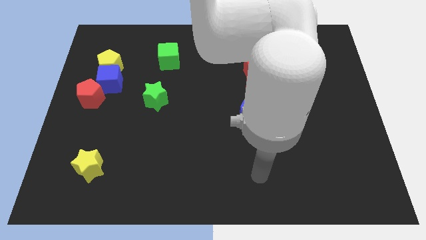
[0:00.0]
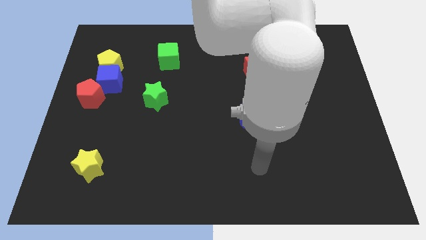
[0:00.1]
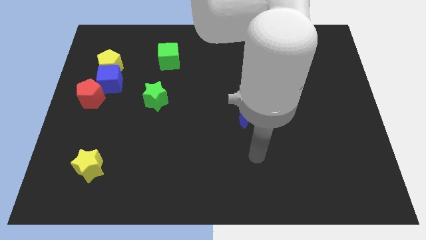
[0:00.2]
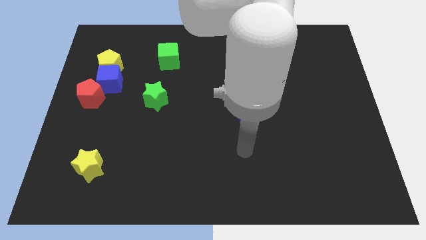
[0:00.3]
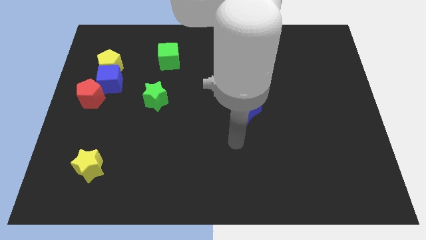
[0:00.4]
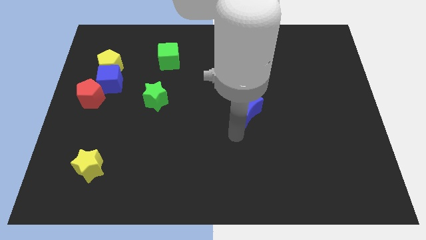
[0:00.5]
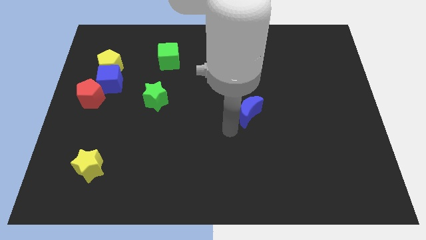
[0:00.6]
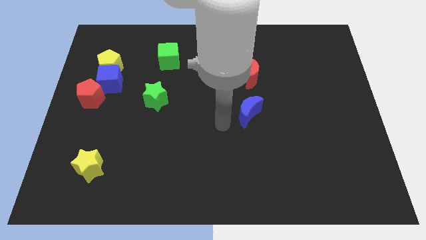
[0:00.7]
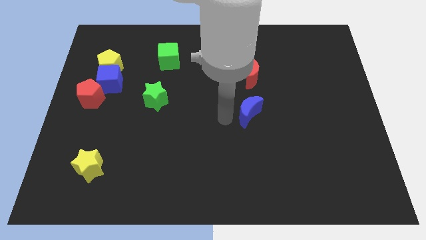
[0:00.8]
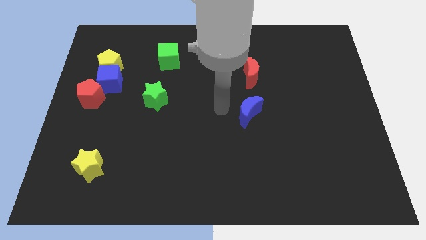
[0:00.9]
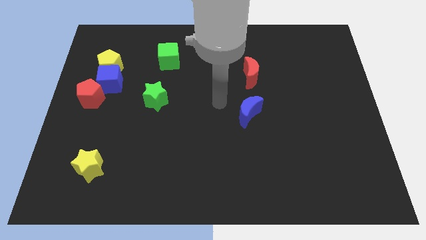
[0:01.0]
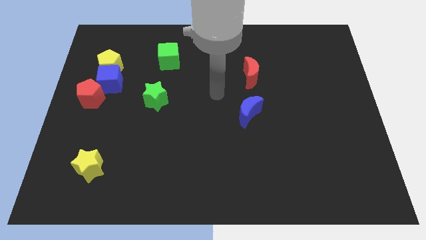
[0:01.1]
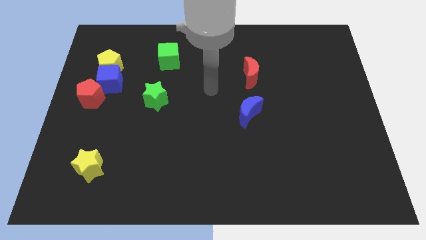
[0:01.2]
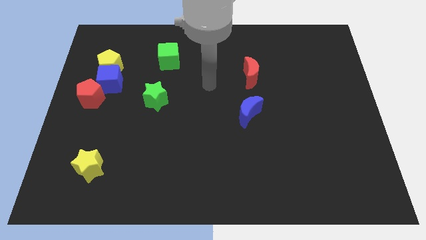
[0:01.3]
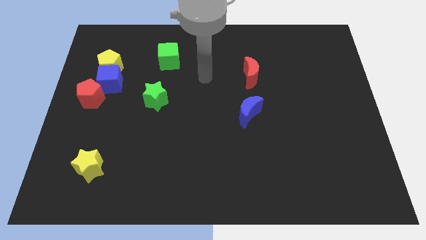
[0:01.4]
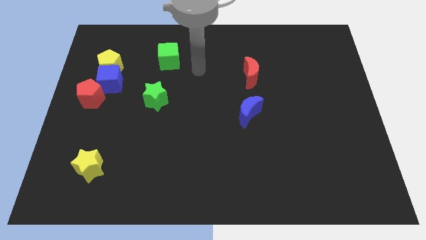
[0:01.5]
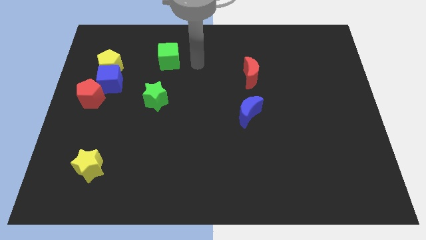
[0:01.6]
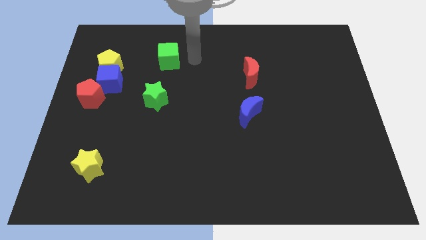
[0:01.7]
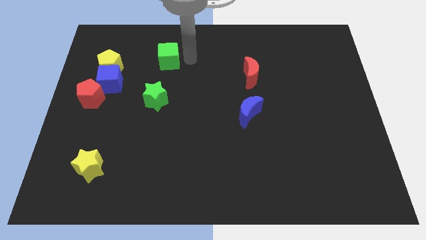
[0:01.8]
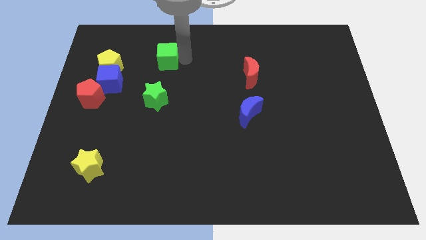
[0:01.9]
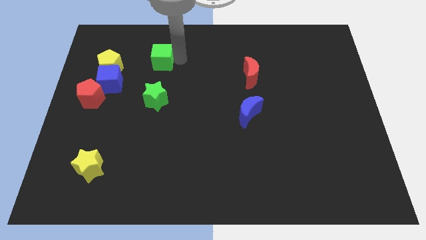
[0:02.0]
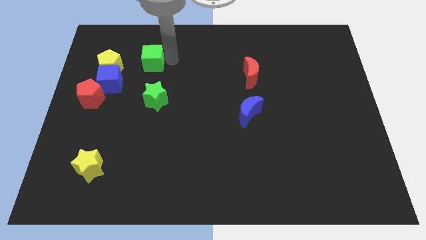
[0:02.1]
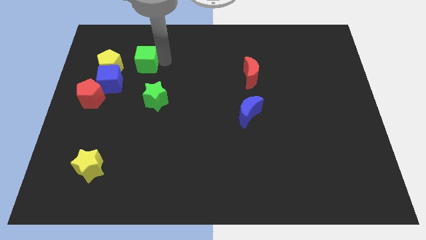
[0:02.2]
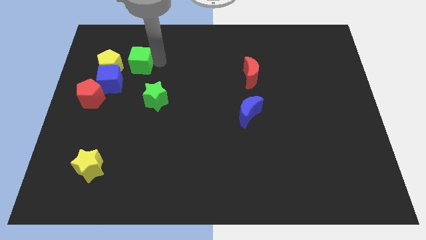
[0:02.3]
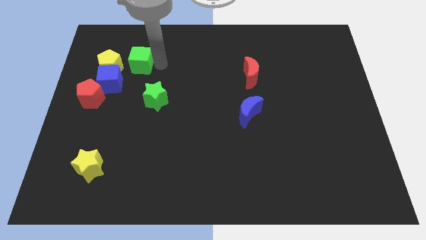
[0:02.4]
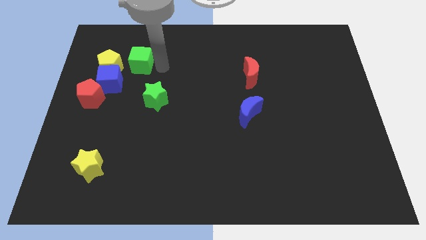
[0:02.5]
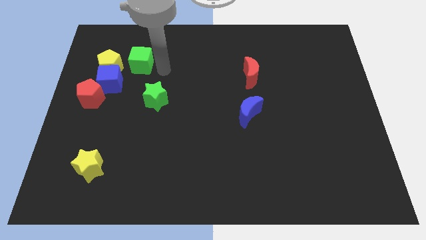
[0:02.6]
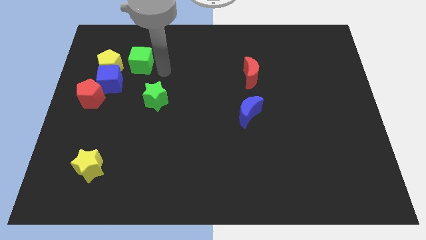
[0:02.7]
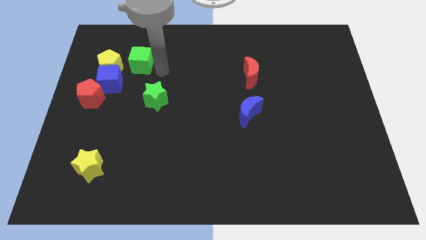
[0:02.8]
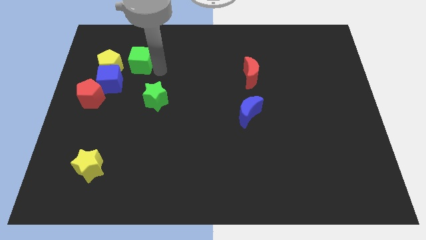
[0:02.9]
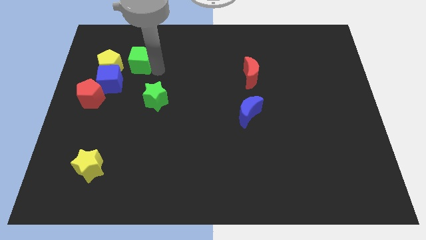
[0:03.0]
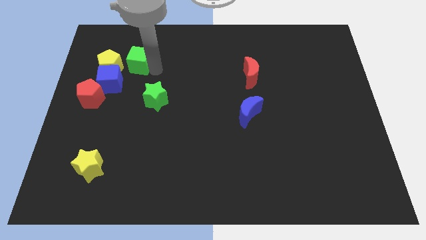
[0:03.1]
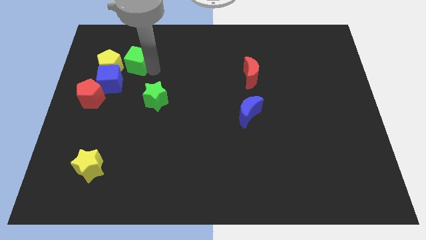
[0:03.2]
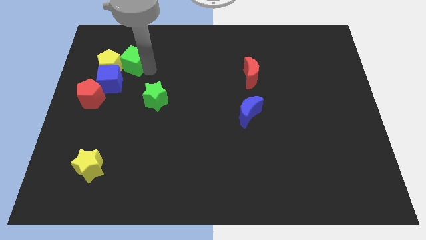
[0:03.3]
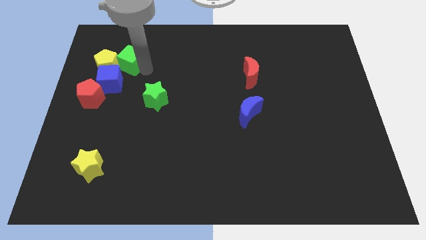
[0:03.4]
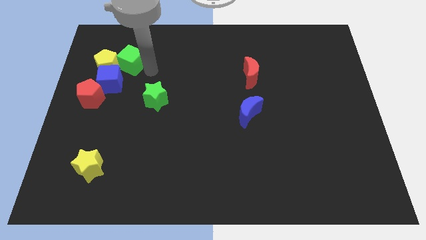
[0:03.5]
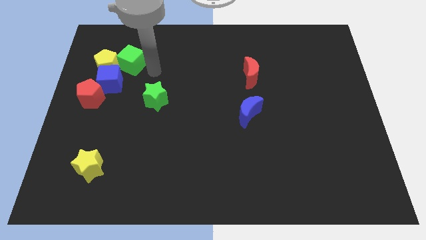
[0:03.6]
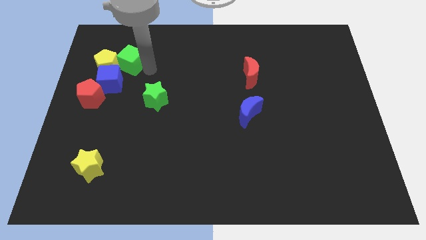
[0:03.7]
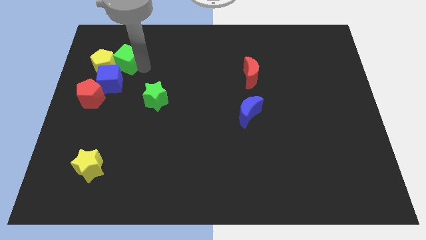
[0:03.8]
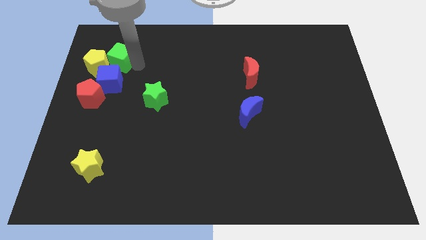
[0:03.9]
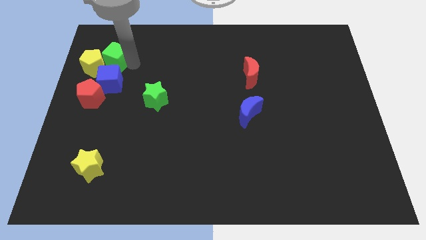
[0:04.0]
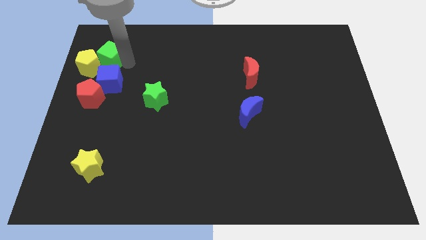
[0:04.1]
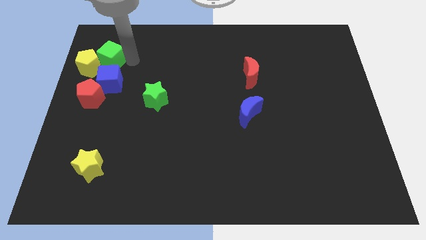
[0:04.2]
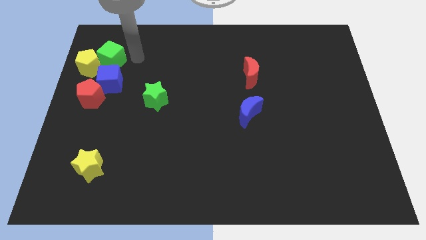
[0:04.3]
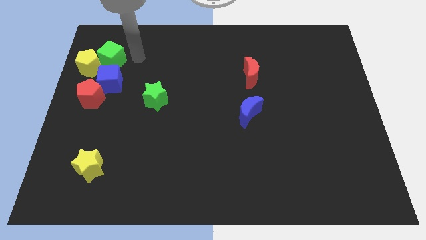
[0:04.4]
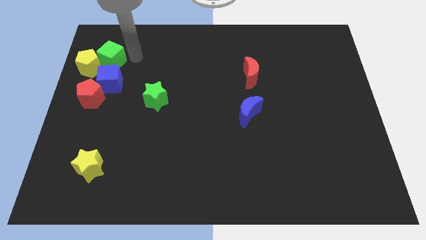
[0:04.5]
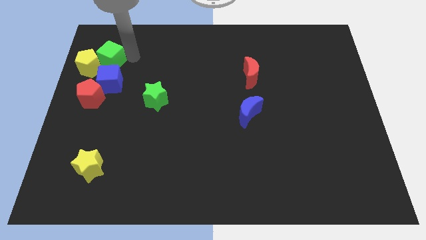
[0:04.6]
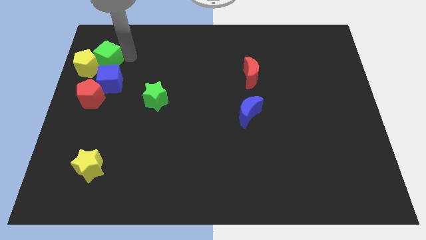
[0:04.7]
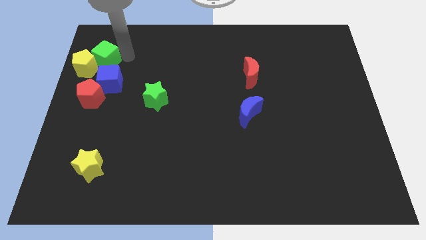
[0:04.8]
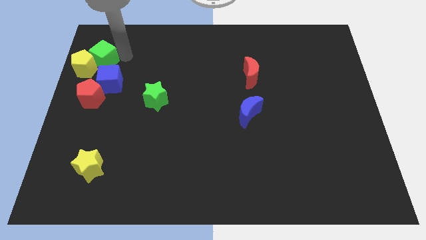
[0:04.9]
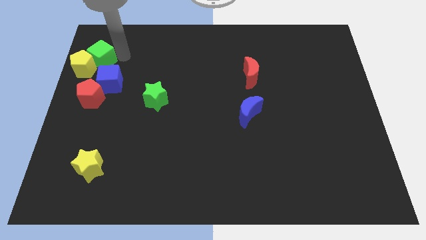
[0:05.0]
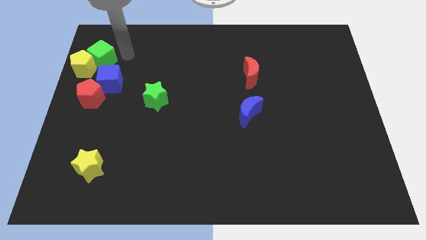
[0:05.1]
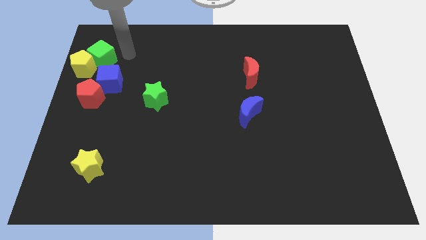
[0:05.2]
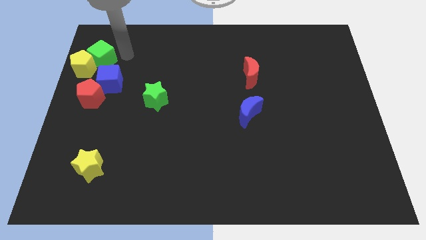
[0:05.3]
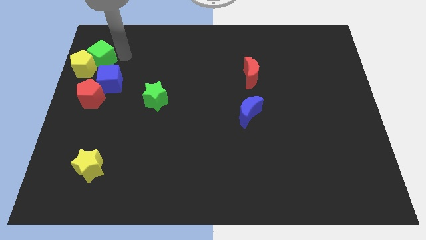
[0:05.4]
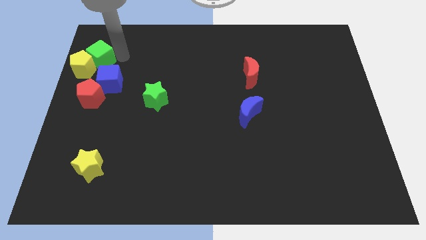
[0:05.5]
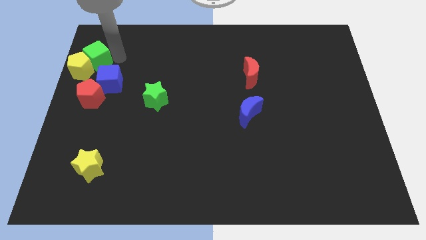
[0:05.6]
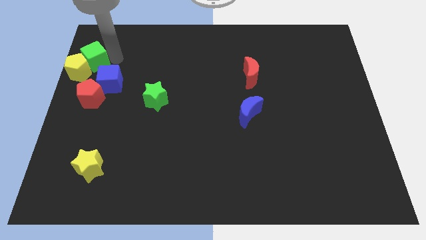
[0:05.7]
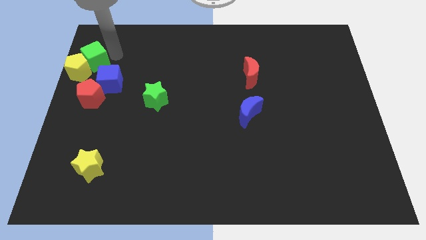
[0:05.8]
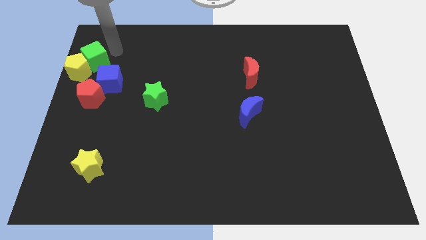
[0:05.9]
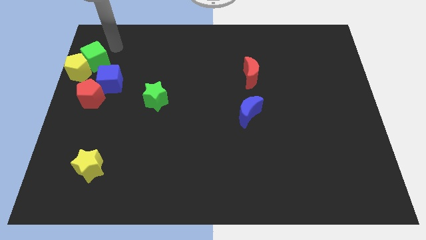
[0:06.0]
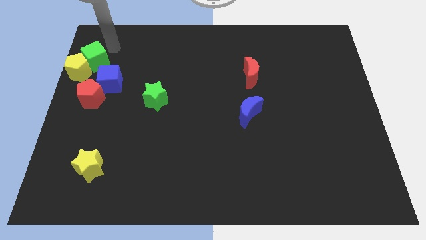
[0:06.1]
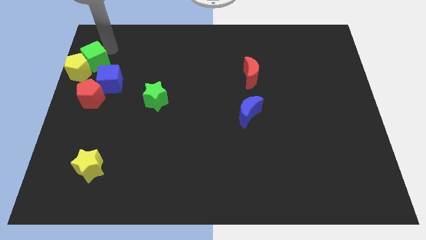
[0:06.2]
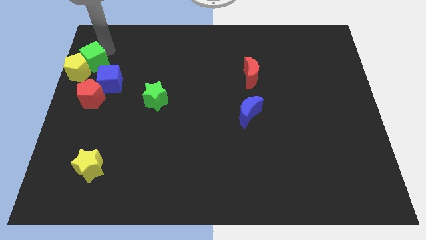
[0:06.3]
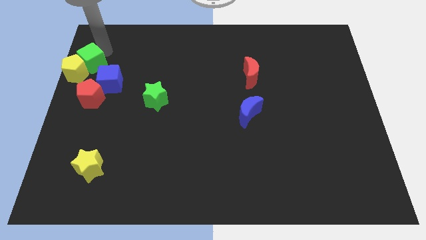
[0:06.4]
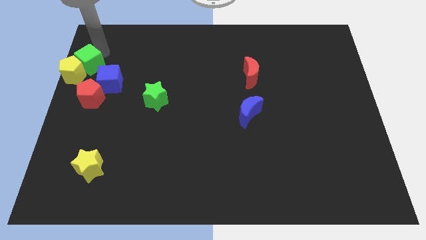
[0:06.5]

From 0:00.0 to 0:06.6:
put the green cube to the center left
